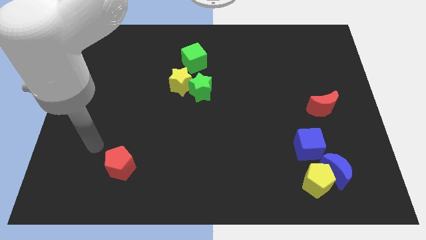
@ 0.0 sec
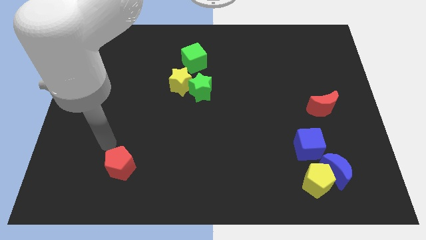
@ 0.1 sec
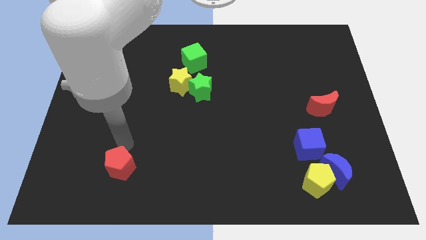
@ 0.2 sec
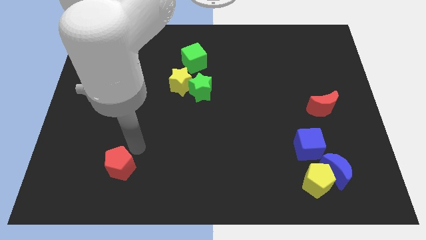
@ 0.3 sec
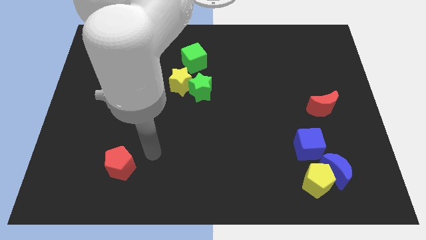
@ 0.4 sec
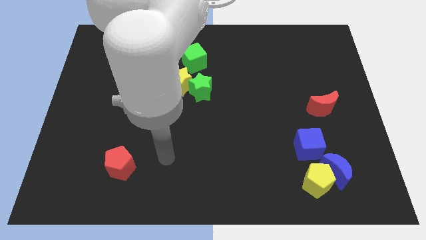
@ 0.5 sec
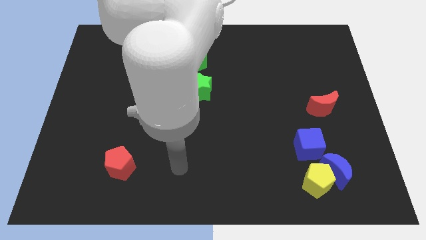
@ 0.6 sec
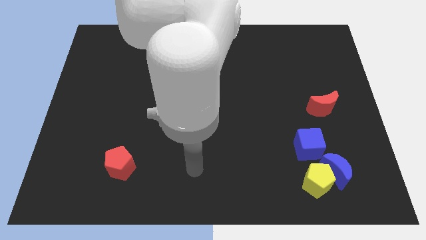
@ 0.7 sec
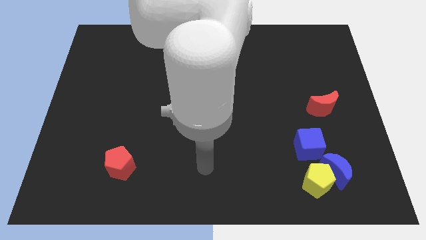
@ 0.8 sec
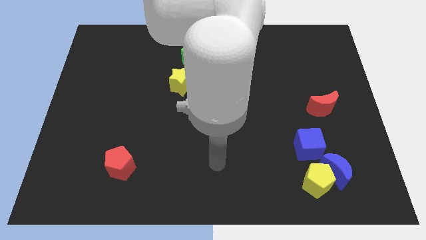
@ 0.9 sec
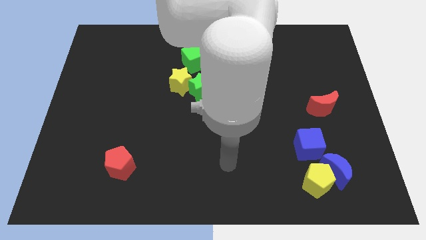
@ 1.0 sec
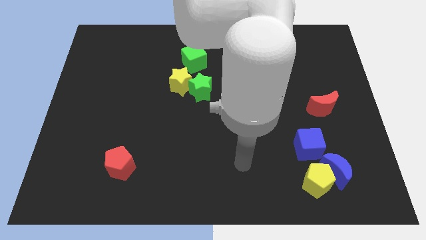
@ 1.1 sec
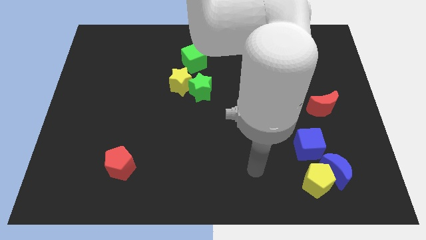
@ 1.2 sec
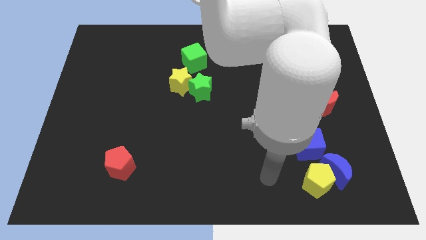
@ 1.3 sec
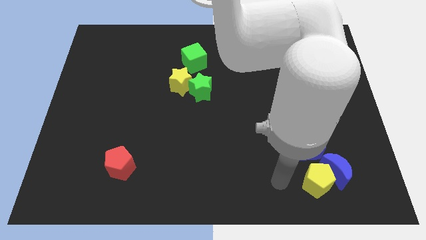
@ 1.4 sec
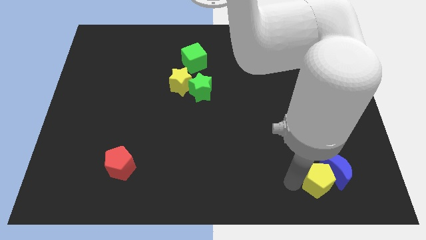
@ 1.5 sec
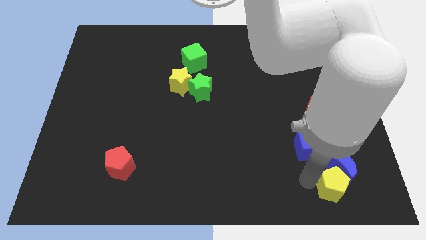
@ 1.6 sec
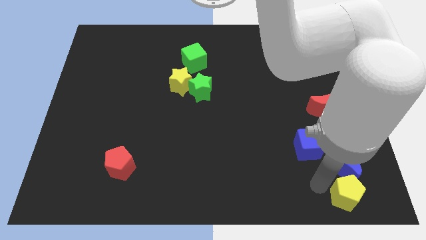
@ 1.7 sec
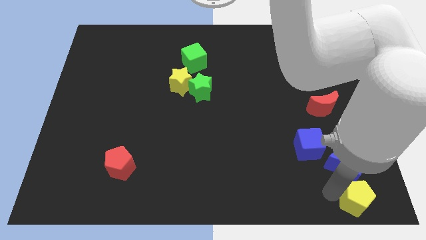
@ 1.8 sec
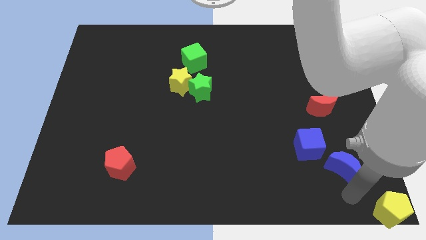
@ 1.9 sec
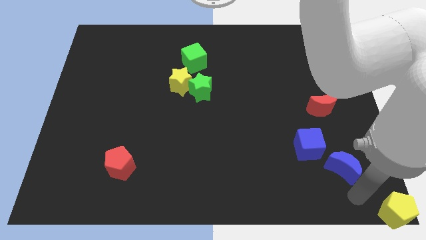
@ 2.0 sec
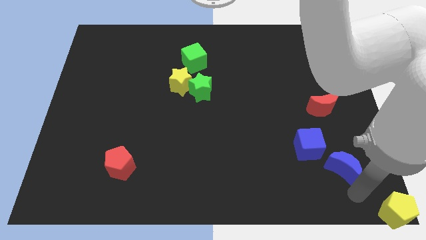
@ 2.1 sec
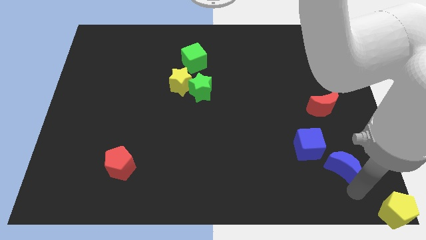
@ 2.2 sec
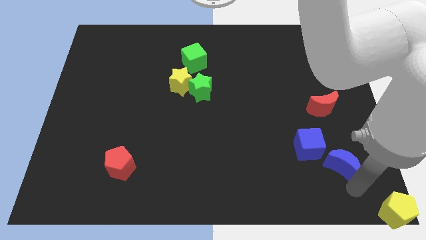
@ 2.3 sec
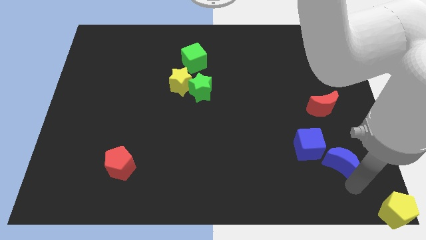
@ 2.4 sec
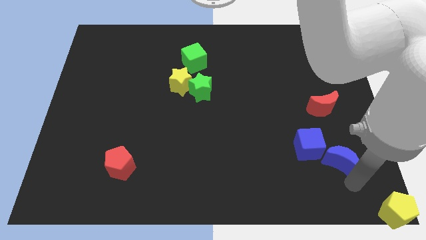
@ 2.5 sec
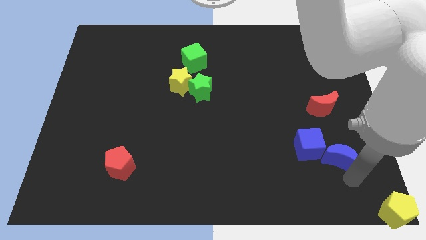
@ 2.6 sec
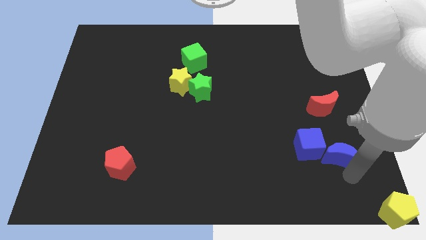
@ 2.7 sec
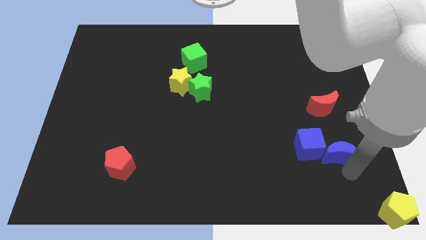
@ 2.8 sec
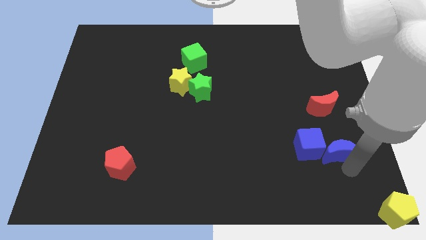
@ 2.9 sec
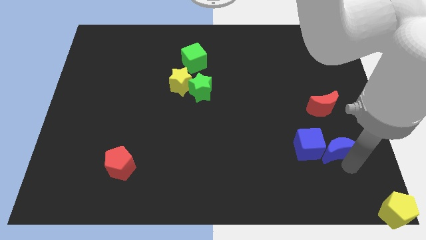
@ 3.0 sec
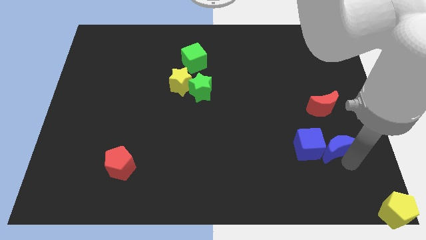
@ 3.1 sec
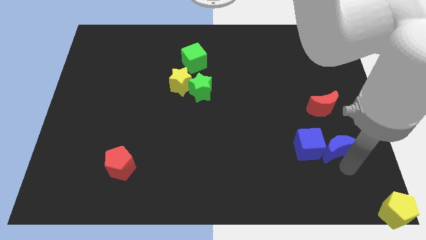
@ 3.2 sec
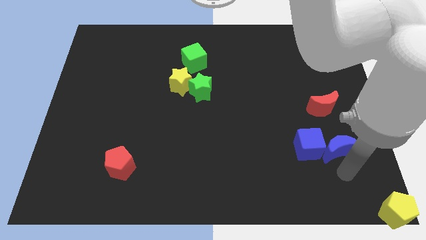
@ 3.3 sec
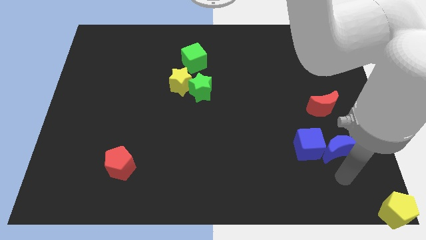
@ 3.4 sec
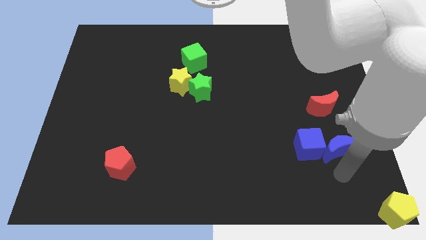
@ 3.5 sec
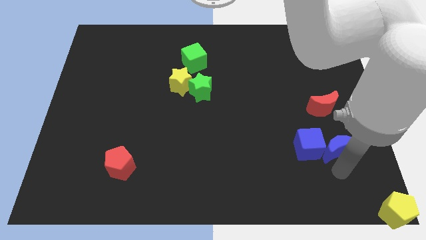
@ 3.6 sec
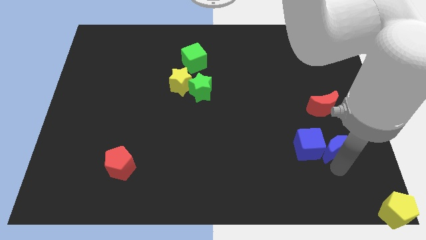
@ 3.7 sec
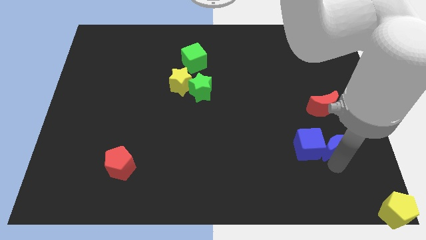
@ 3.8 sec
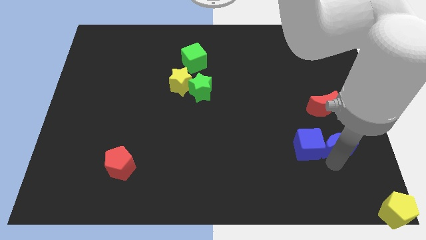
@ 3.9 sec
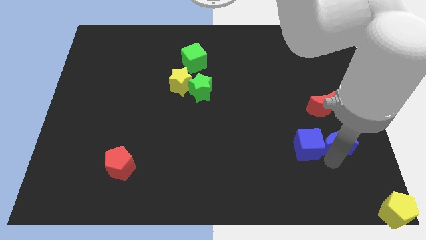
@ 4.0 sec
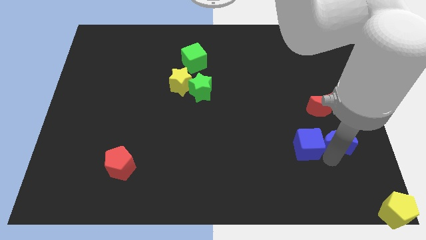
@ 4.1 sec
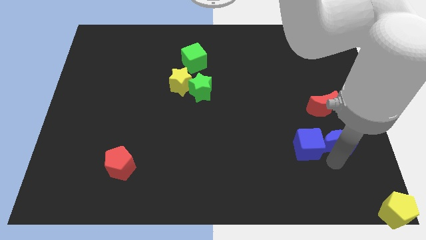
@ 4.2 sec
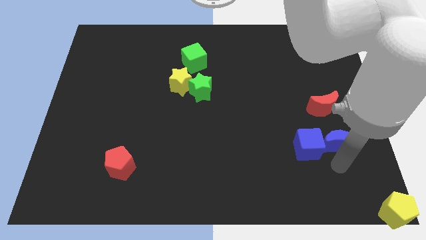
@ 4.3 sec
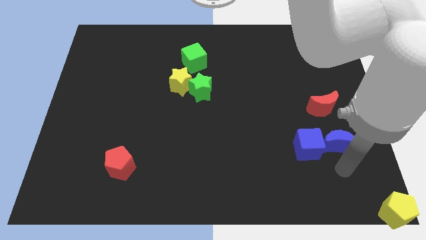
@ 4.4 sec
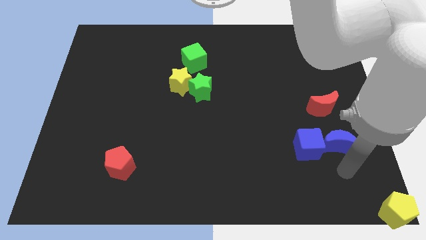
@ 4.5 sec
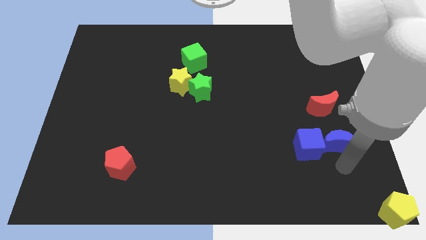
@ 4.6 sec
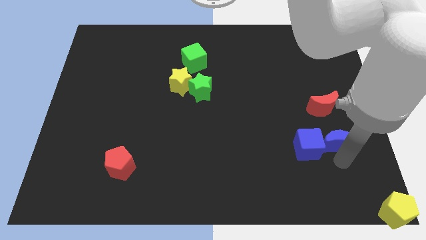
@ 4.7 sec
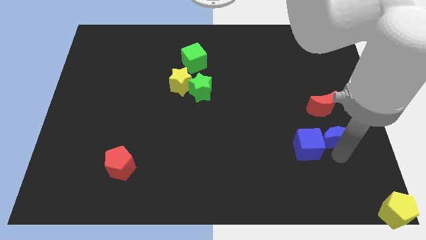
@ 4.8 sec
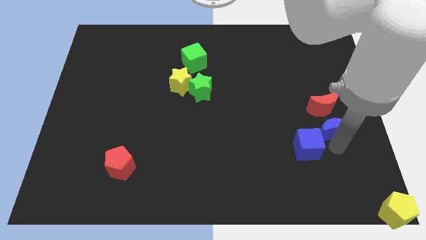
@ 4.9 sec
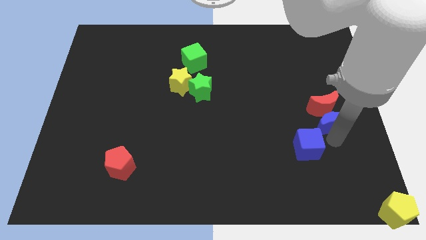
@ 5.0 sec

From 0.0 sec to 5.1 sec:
slide the blue moon to the red moon

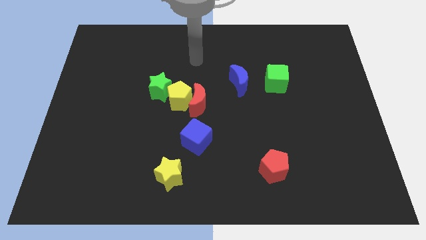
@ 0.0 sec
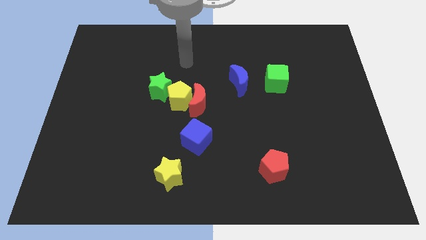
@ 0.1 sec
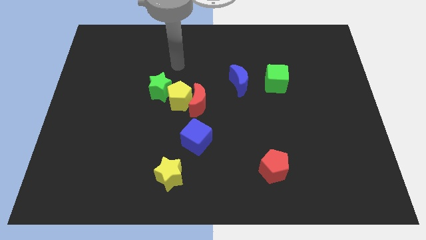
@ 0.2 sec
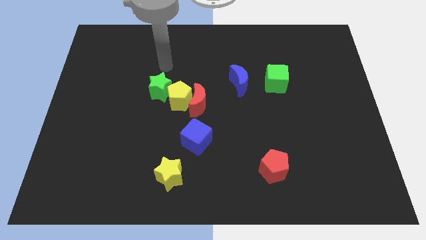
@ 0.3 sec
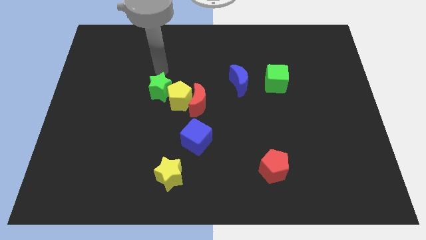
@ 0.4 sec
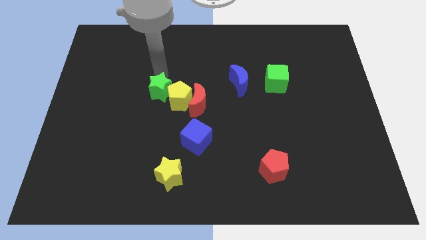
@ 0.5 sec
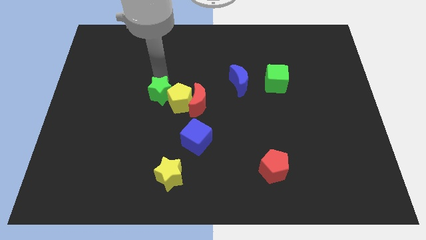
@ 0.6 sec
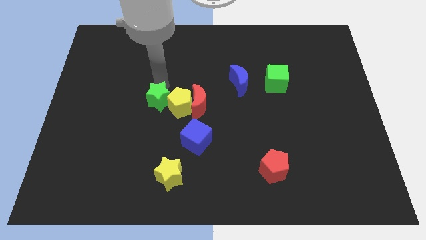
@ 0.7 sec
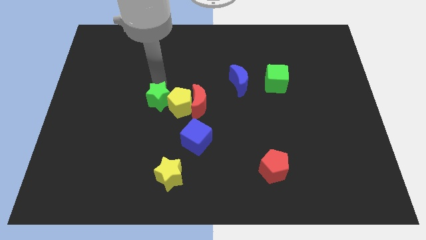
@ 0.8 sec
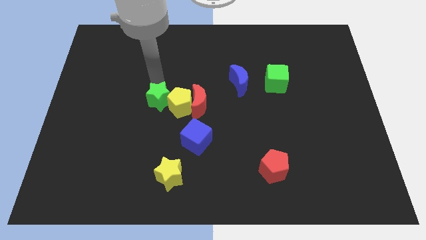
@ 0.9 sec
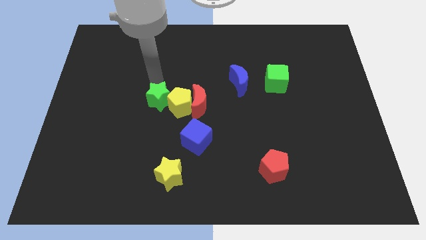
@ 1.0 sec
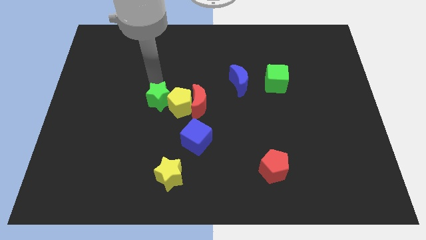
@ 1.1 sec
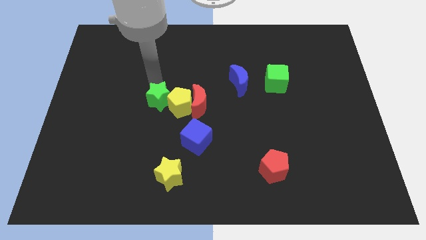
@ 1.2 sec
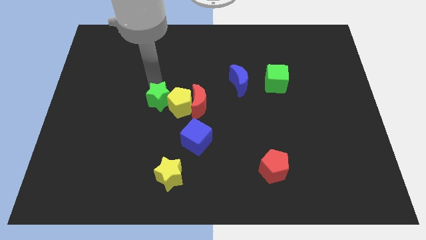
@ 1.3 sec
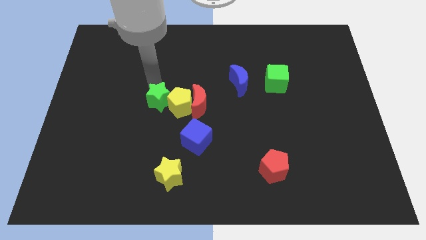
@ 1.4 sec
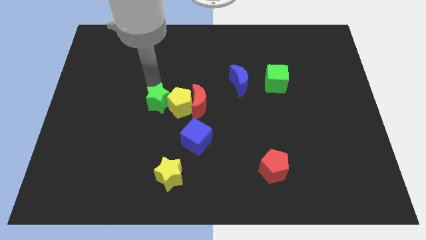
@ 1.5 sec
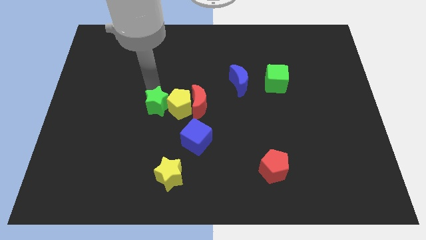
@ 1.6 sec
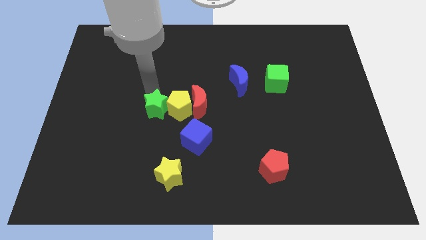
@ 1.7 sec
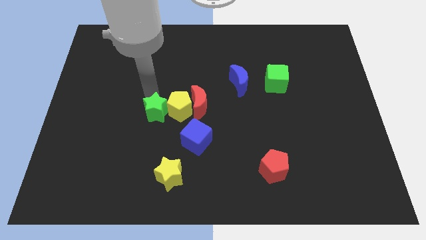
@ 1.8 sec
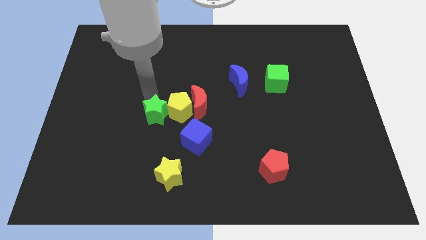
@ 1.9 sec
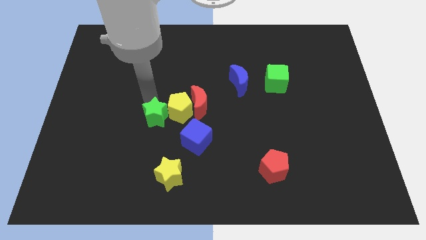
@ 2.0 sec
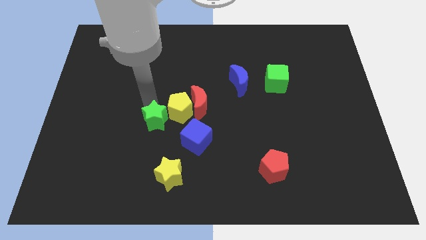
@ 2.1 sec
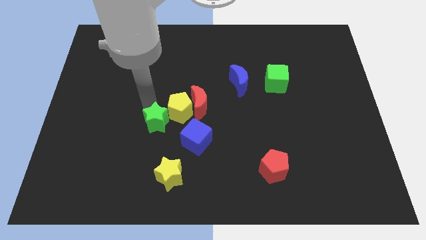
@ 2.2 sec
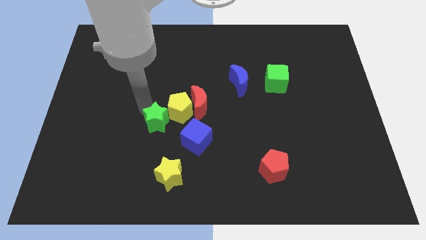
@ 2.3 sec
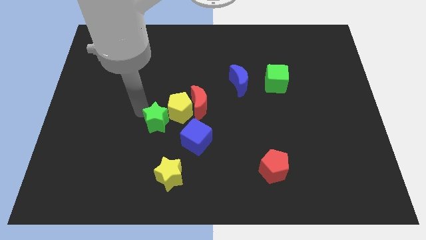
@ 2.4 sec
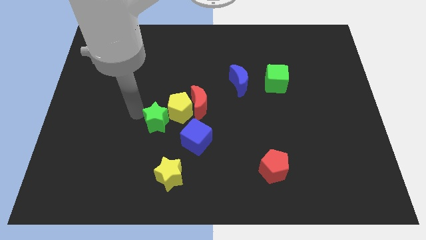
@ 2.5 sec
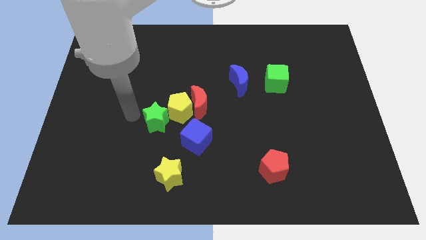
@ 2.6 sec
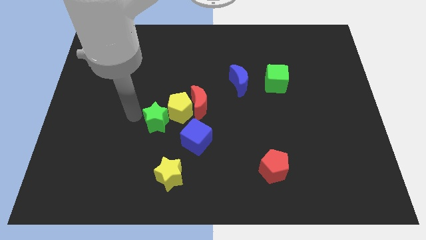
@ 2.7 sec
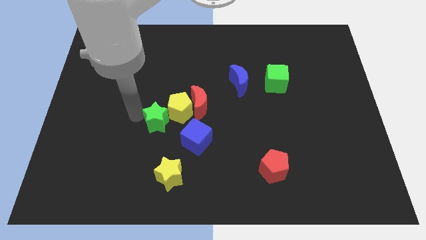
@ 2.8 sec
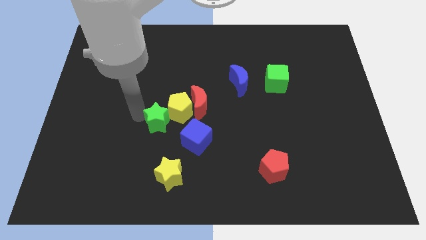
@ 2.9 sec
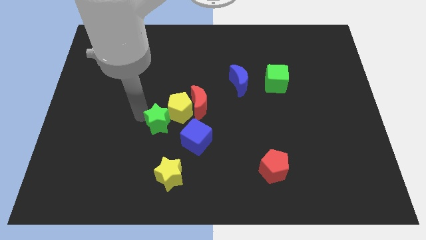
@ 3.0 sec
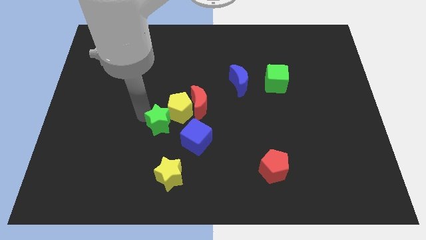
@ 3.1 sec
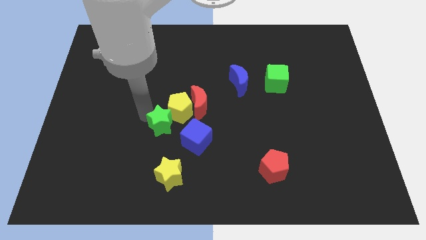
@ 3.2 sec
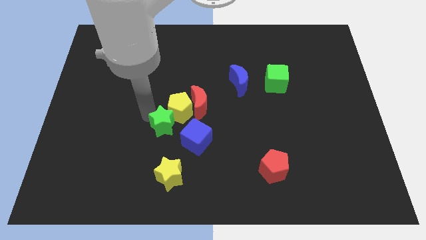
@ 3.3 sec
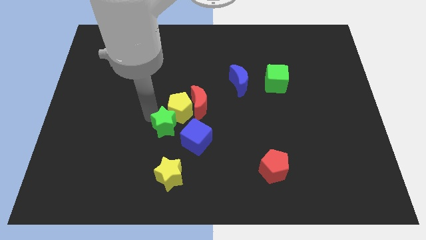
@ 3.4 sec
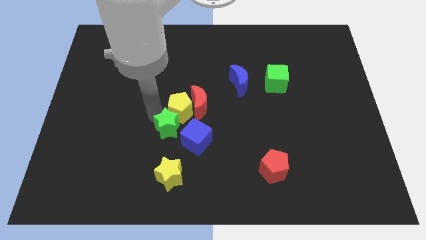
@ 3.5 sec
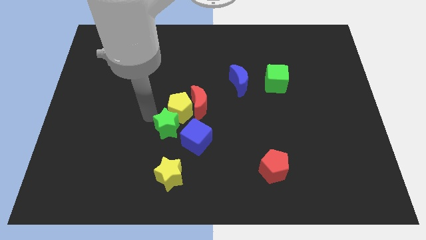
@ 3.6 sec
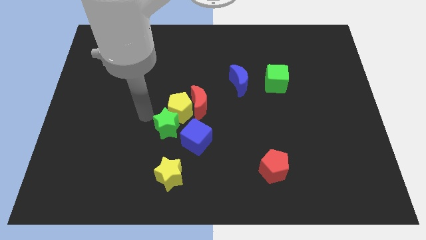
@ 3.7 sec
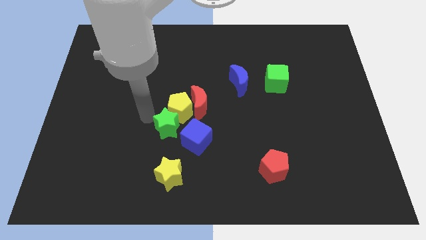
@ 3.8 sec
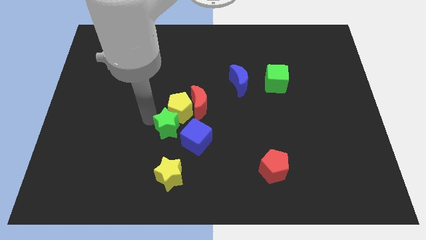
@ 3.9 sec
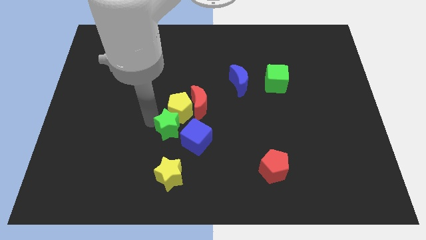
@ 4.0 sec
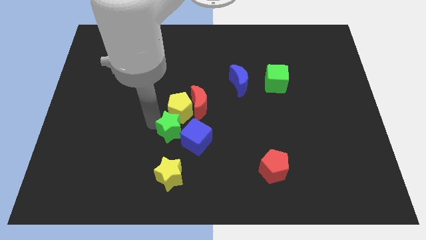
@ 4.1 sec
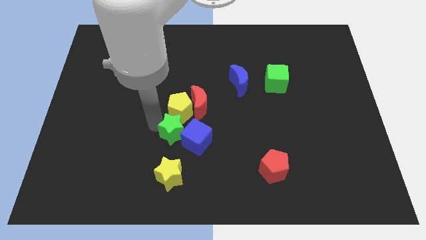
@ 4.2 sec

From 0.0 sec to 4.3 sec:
slide the green star to the blue cube
